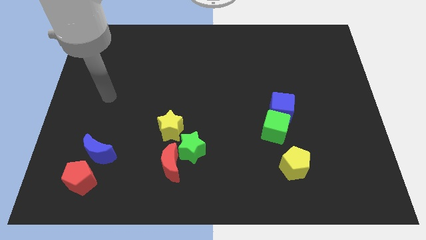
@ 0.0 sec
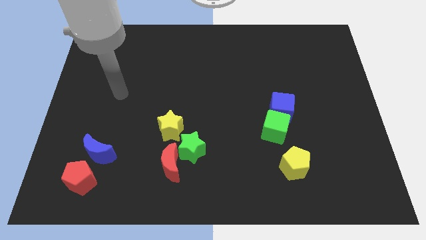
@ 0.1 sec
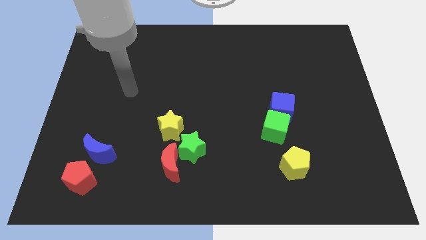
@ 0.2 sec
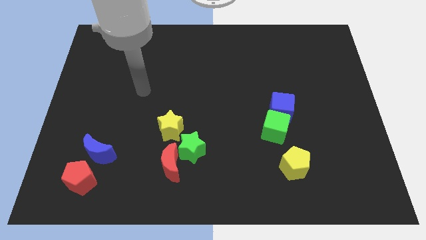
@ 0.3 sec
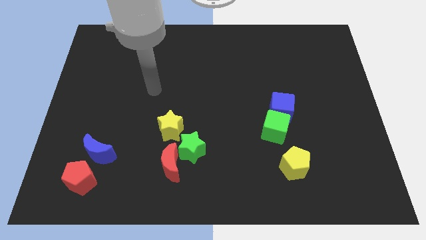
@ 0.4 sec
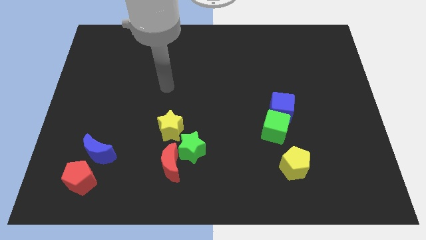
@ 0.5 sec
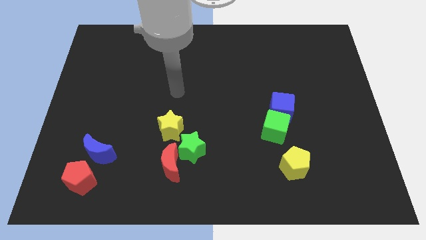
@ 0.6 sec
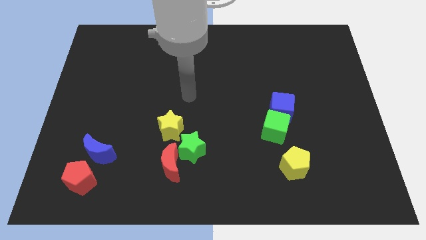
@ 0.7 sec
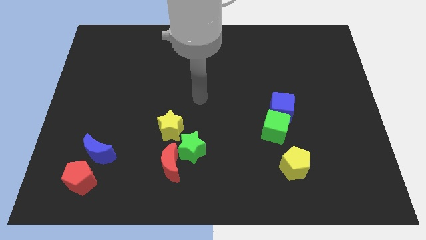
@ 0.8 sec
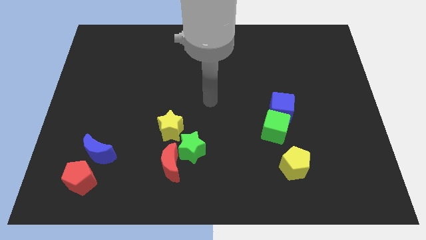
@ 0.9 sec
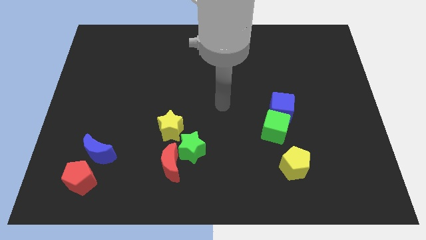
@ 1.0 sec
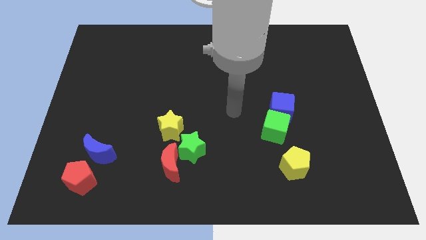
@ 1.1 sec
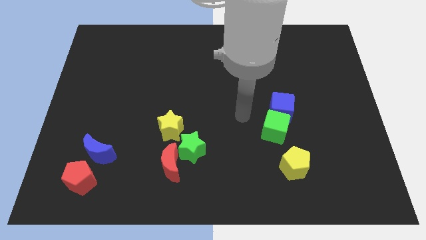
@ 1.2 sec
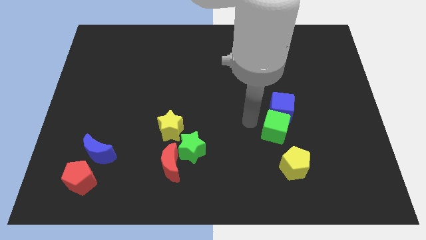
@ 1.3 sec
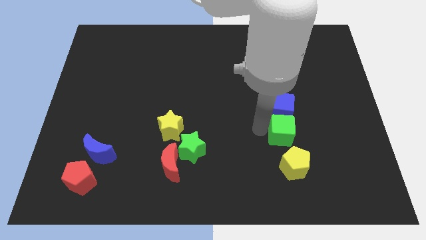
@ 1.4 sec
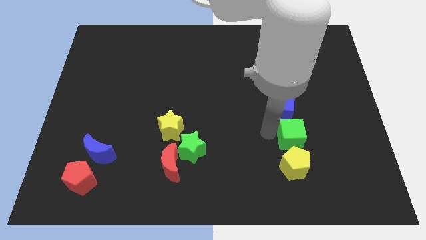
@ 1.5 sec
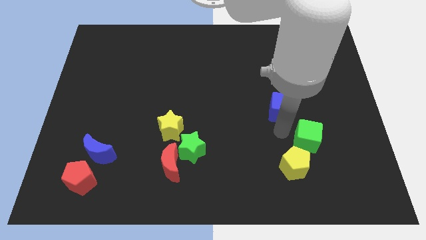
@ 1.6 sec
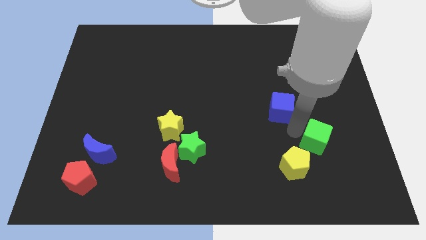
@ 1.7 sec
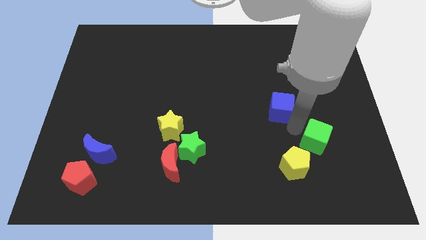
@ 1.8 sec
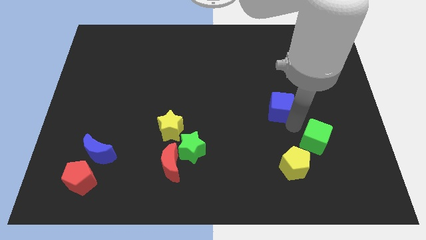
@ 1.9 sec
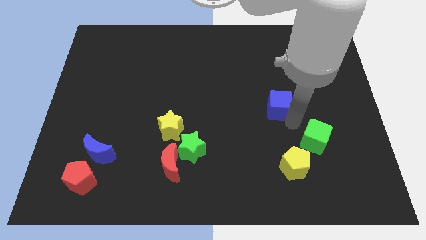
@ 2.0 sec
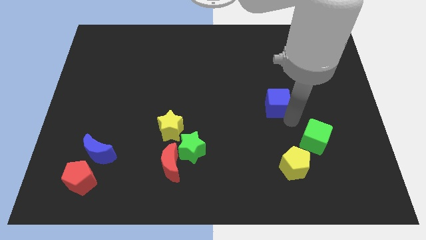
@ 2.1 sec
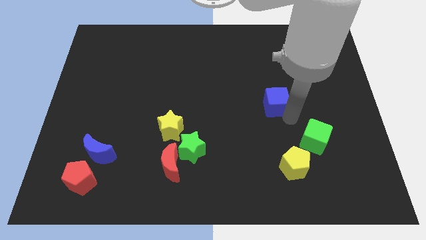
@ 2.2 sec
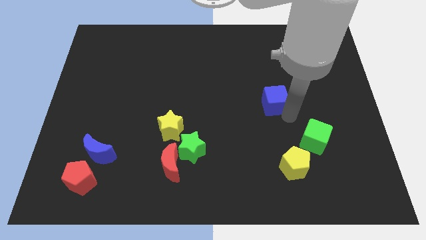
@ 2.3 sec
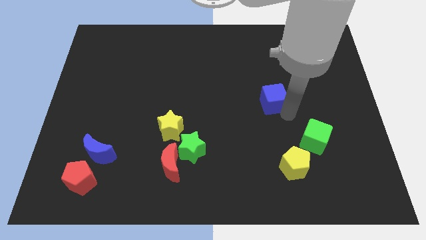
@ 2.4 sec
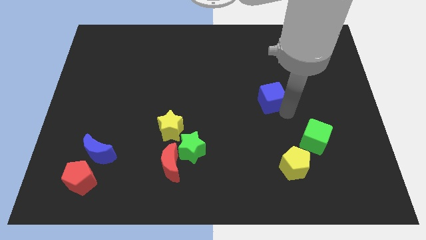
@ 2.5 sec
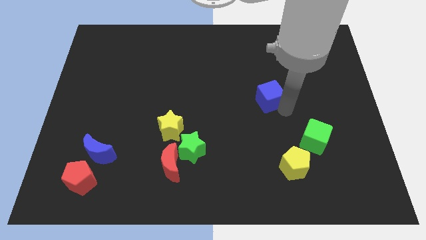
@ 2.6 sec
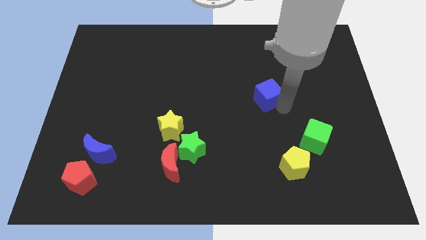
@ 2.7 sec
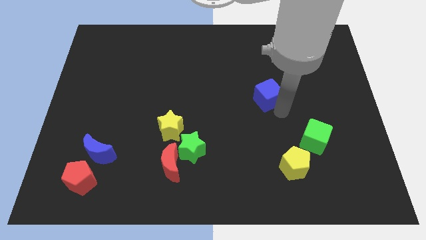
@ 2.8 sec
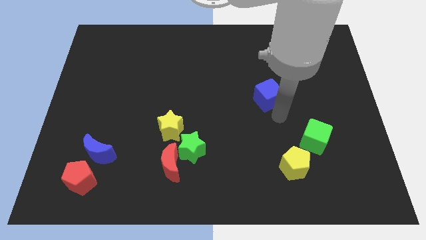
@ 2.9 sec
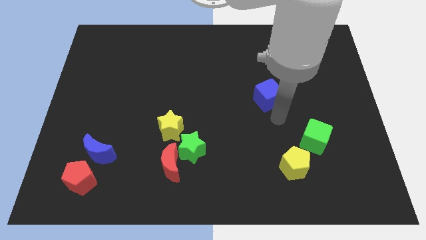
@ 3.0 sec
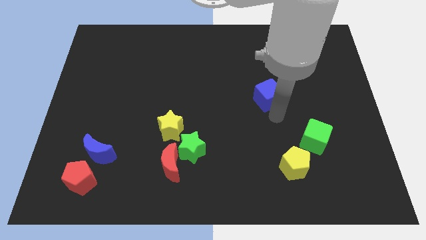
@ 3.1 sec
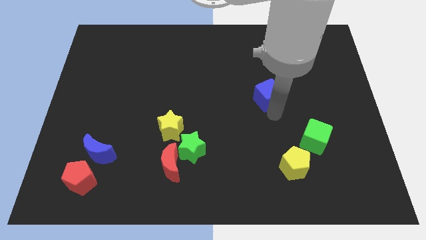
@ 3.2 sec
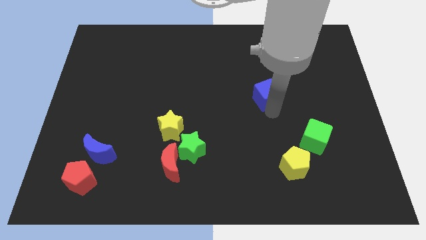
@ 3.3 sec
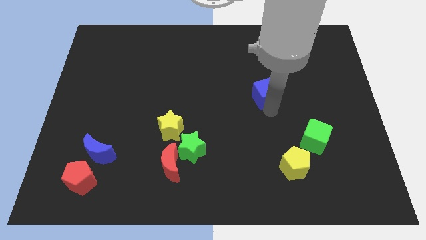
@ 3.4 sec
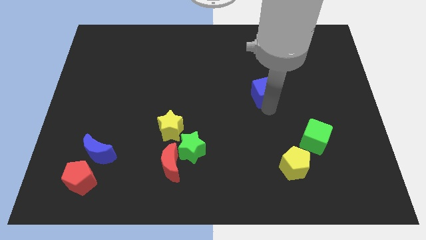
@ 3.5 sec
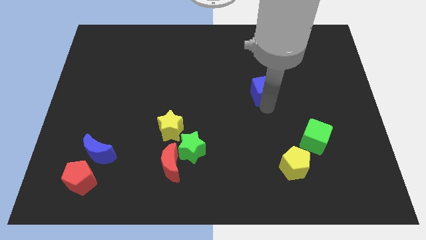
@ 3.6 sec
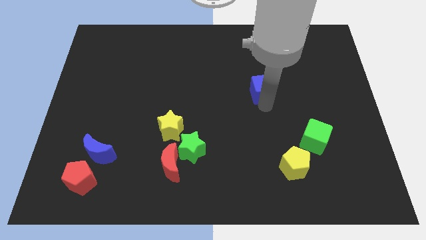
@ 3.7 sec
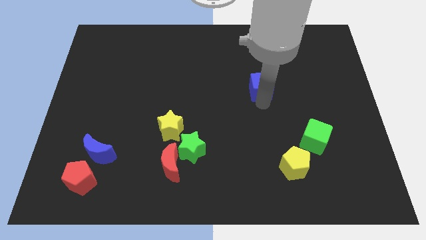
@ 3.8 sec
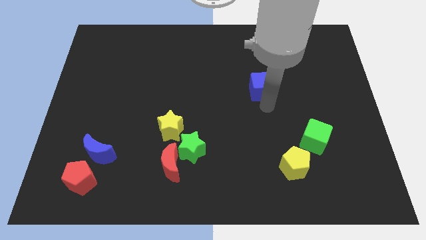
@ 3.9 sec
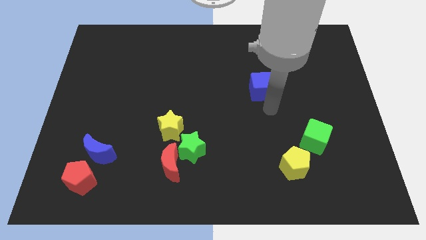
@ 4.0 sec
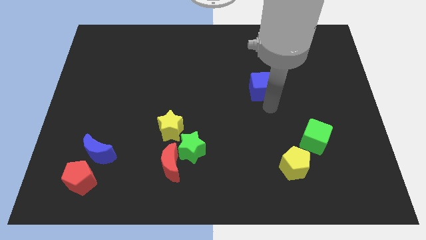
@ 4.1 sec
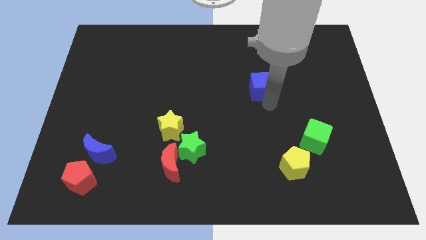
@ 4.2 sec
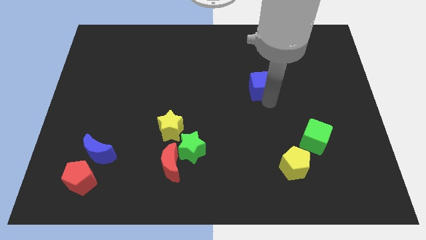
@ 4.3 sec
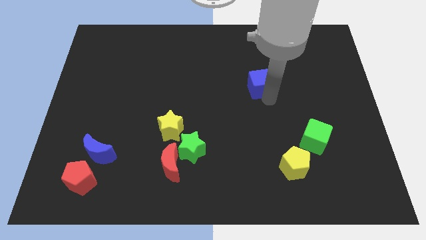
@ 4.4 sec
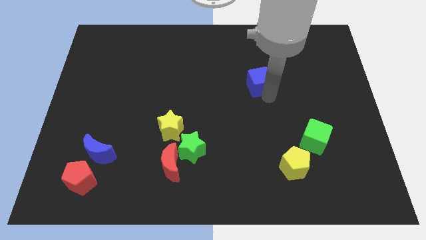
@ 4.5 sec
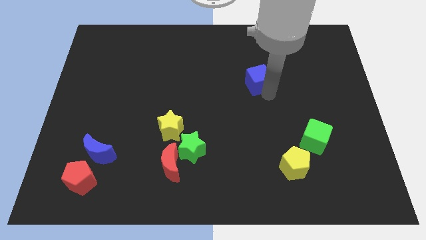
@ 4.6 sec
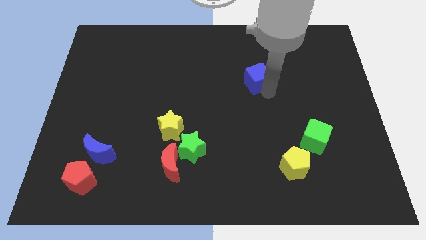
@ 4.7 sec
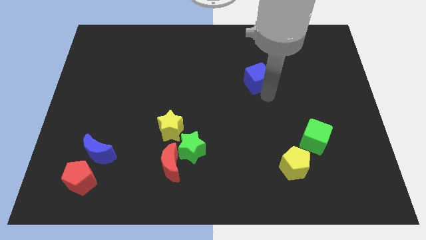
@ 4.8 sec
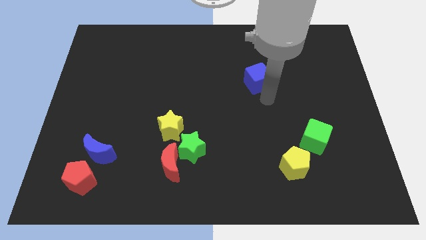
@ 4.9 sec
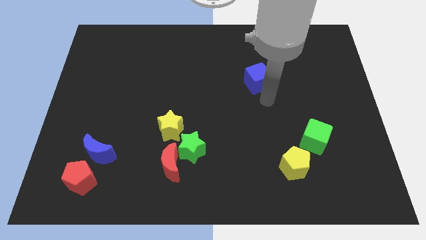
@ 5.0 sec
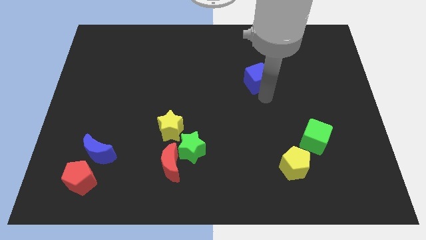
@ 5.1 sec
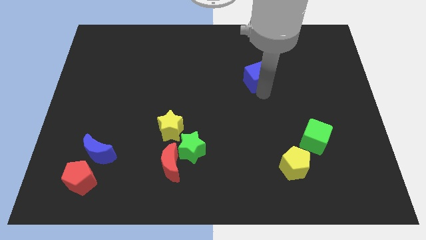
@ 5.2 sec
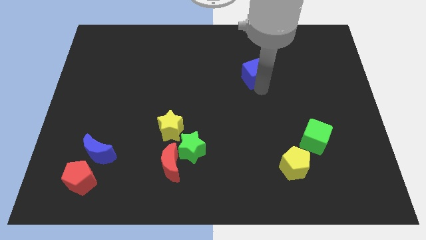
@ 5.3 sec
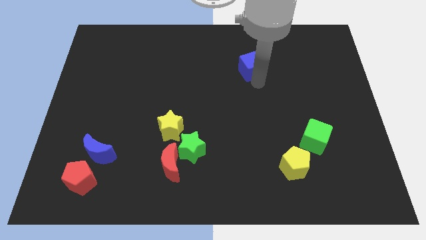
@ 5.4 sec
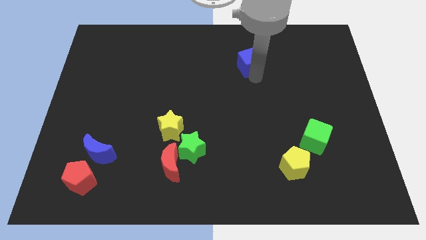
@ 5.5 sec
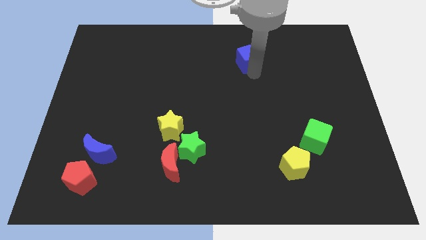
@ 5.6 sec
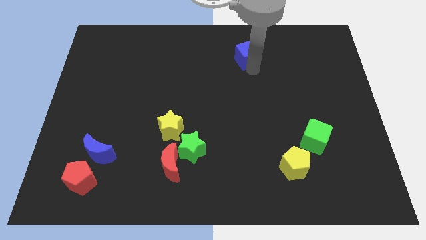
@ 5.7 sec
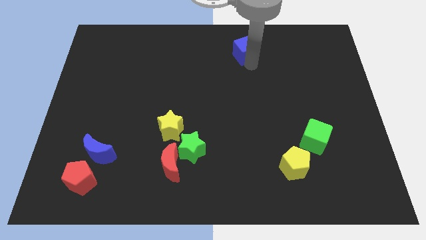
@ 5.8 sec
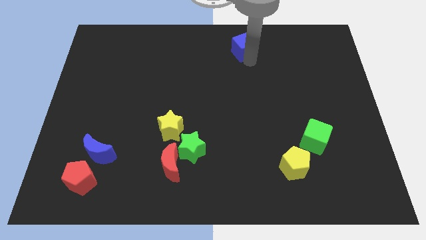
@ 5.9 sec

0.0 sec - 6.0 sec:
slide the blue cube to the top side

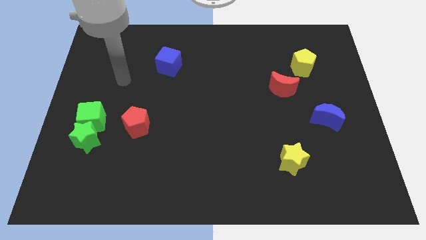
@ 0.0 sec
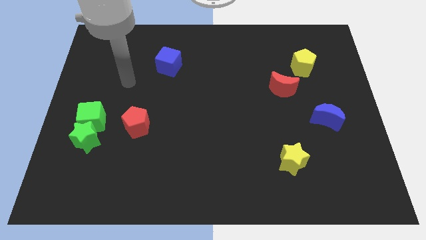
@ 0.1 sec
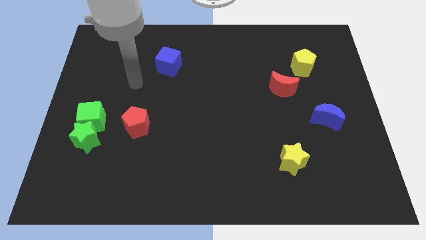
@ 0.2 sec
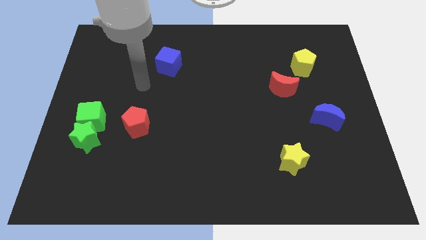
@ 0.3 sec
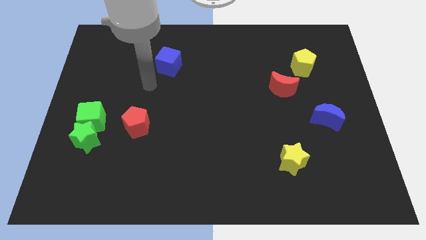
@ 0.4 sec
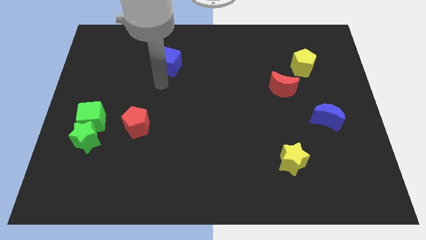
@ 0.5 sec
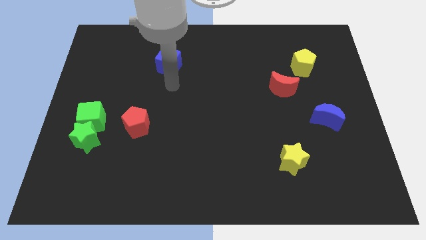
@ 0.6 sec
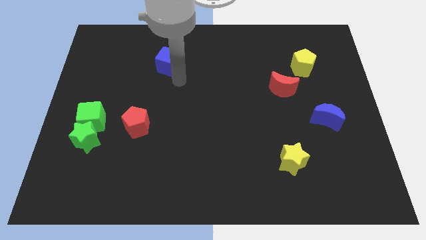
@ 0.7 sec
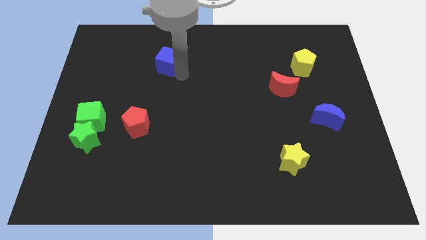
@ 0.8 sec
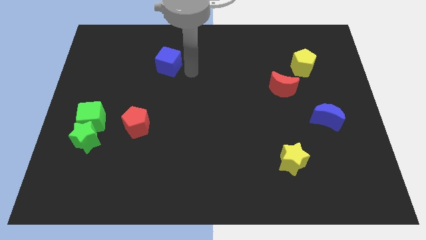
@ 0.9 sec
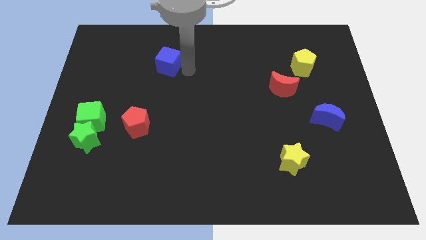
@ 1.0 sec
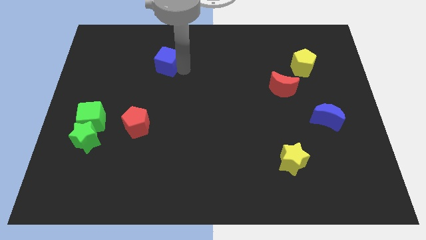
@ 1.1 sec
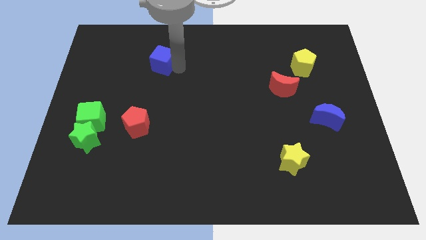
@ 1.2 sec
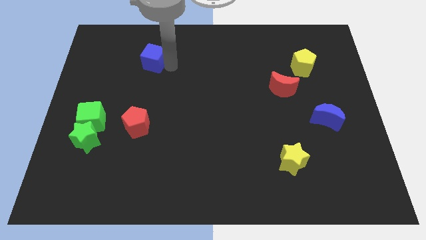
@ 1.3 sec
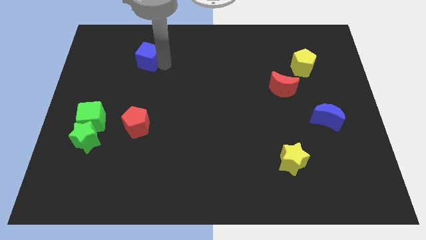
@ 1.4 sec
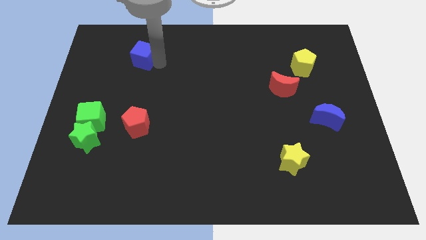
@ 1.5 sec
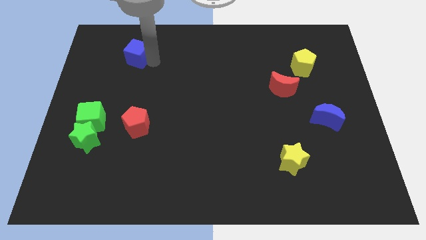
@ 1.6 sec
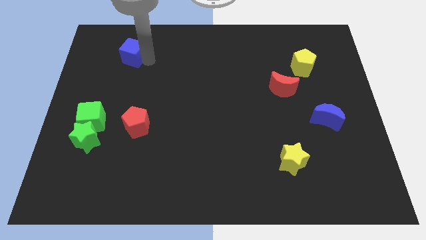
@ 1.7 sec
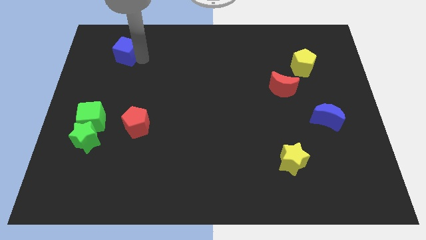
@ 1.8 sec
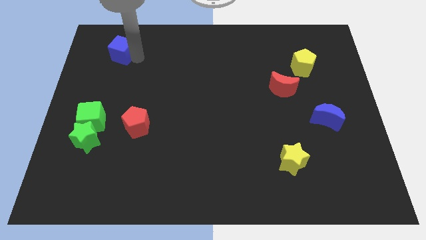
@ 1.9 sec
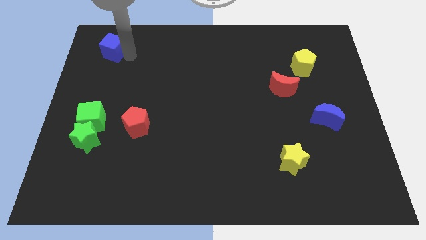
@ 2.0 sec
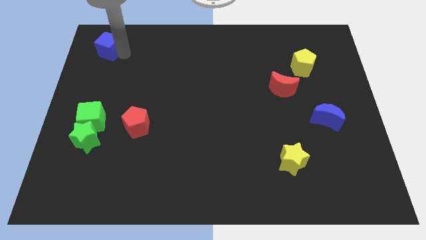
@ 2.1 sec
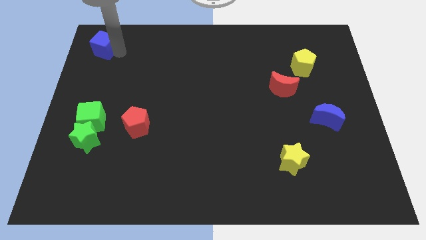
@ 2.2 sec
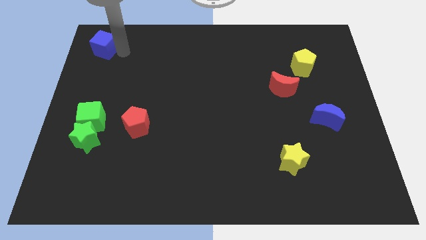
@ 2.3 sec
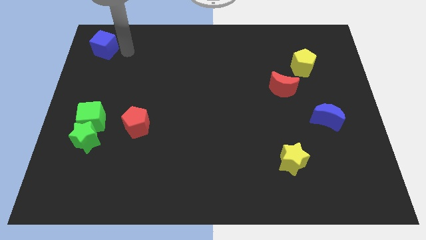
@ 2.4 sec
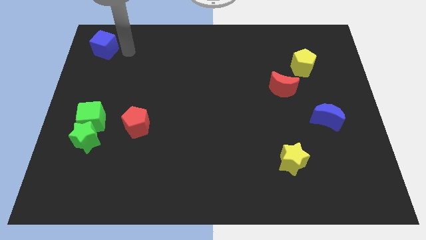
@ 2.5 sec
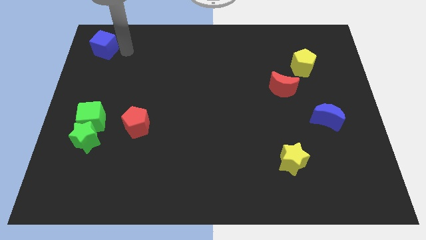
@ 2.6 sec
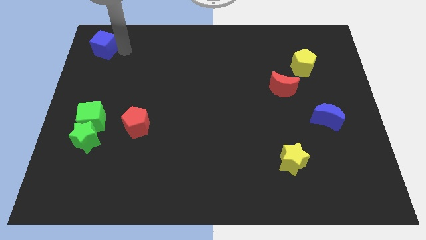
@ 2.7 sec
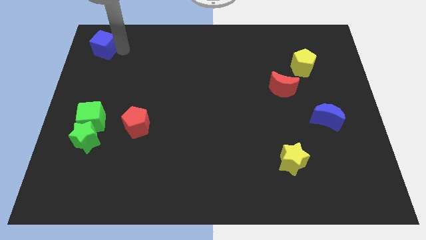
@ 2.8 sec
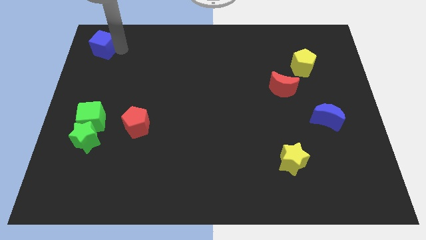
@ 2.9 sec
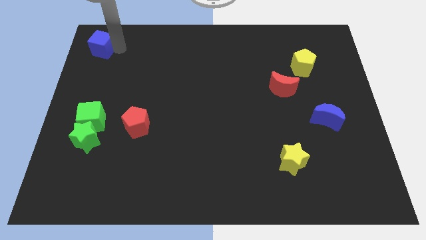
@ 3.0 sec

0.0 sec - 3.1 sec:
push the blue cube to the top left corner
